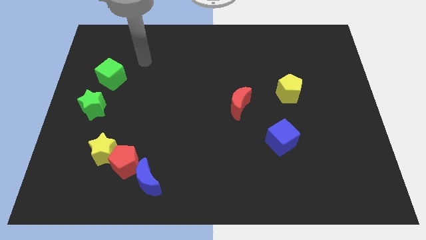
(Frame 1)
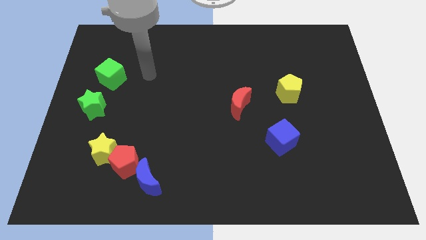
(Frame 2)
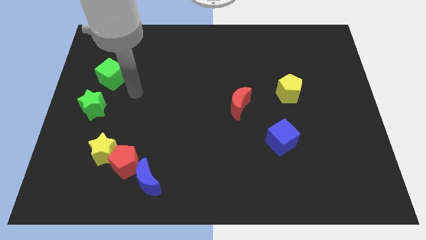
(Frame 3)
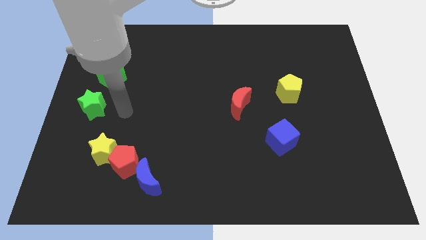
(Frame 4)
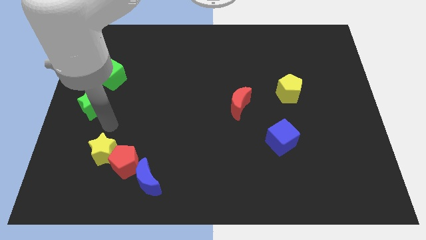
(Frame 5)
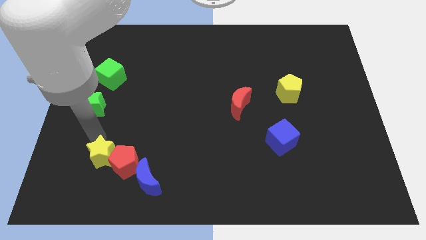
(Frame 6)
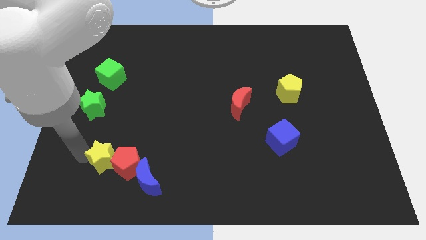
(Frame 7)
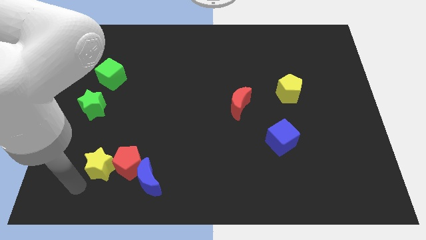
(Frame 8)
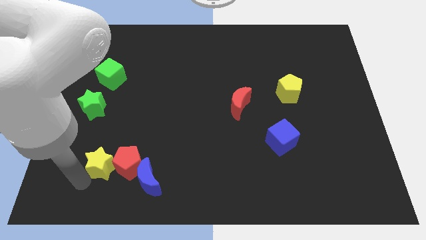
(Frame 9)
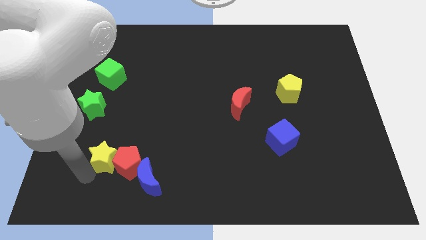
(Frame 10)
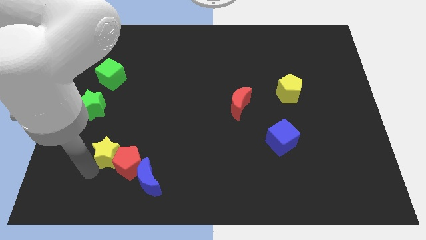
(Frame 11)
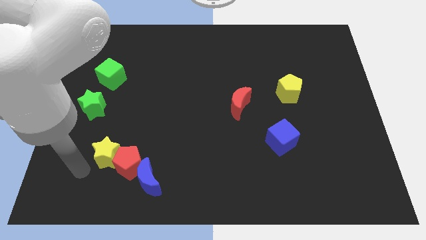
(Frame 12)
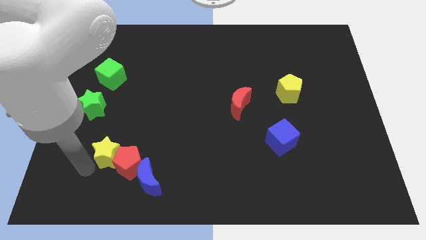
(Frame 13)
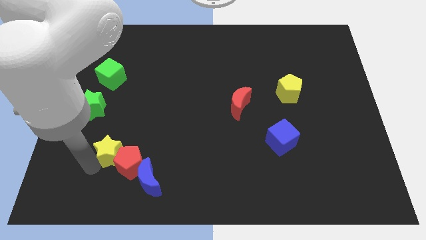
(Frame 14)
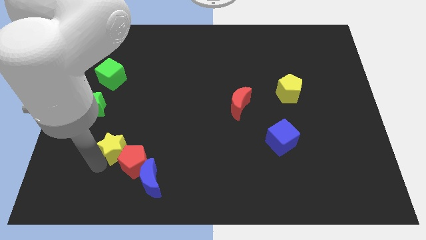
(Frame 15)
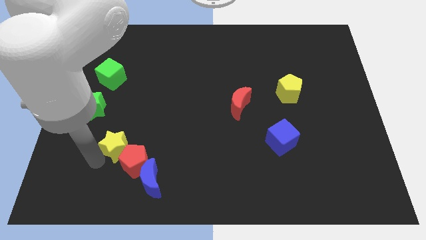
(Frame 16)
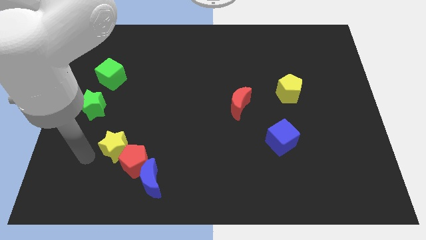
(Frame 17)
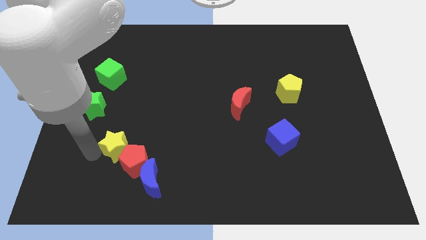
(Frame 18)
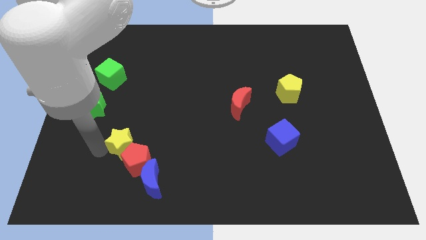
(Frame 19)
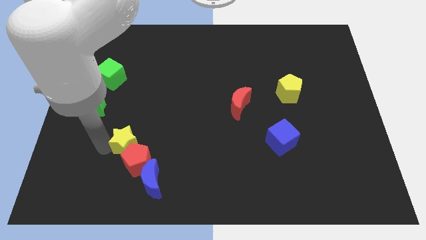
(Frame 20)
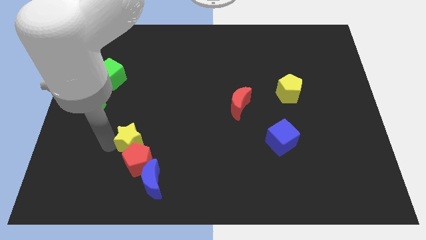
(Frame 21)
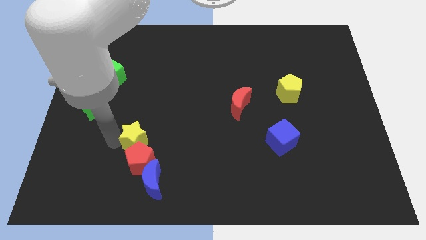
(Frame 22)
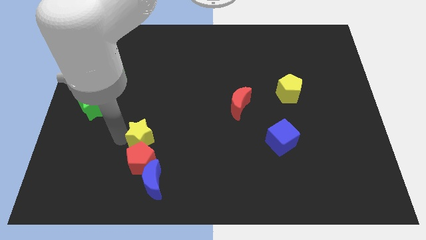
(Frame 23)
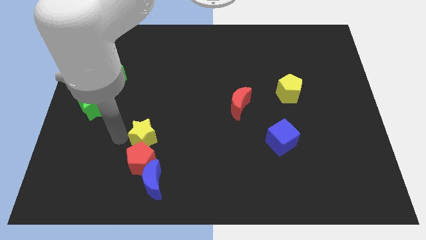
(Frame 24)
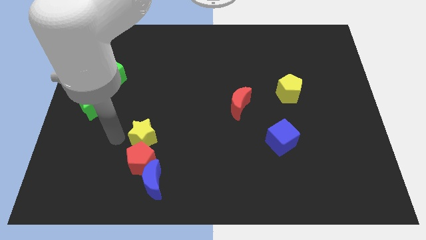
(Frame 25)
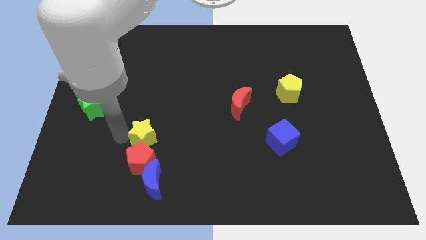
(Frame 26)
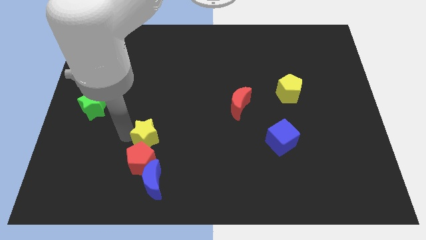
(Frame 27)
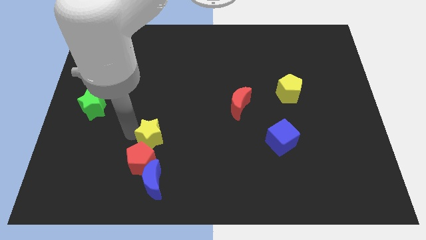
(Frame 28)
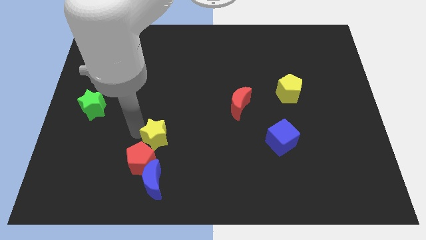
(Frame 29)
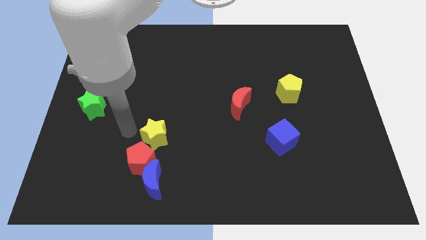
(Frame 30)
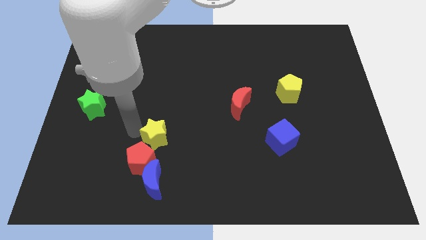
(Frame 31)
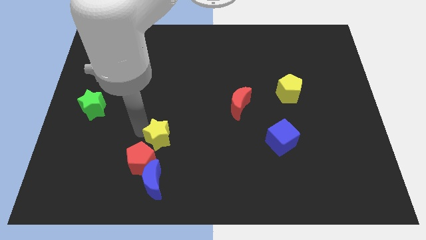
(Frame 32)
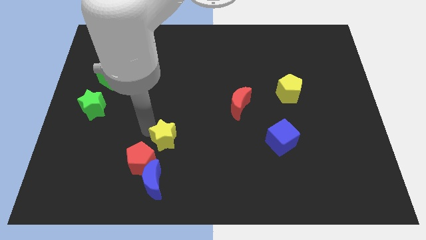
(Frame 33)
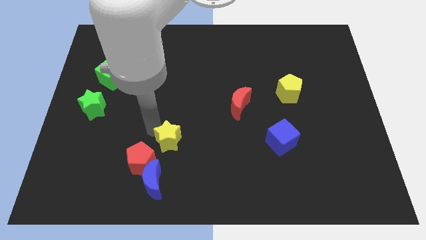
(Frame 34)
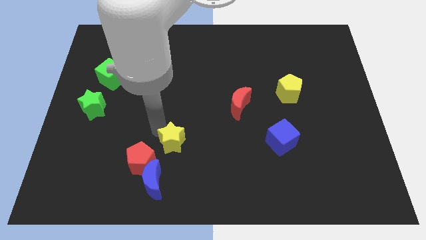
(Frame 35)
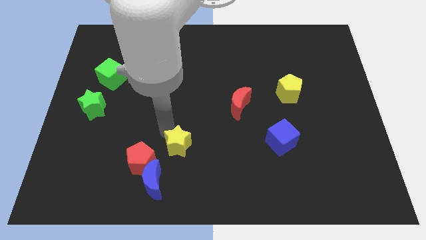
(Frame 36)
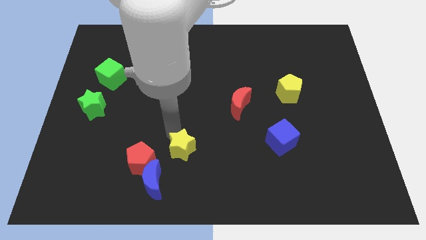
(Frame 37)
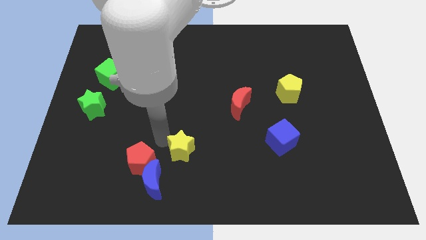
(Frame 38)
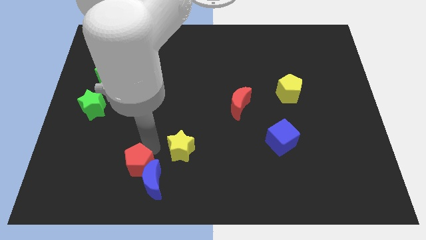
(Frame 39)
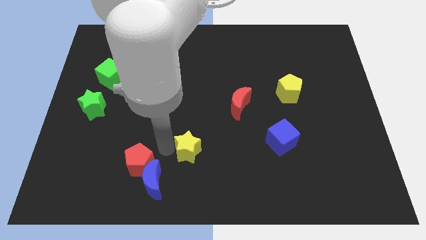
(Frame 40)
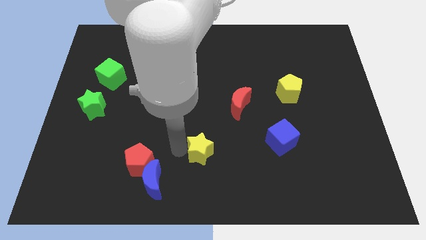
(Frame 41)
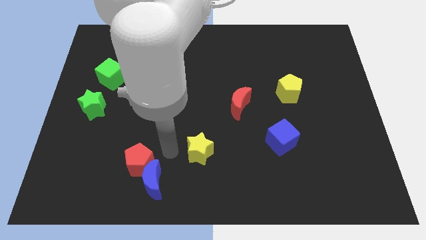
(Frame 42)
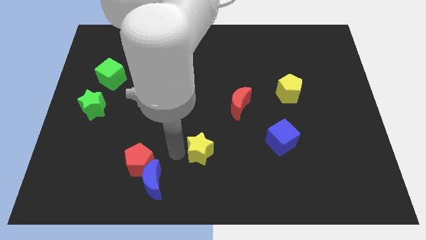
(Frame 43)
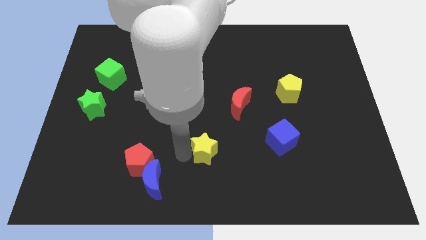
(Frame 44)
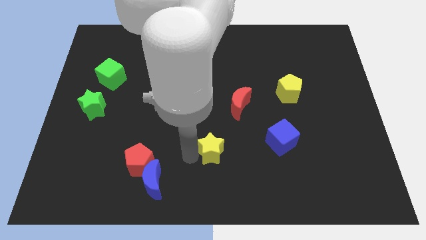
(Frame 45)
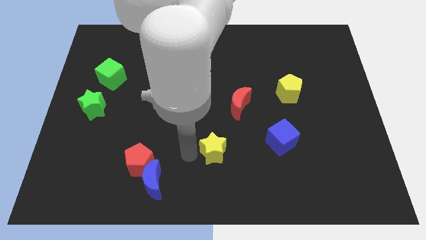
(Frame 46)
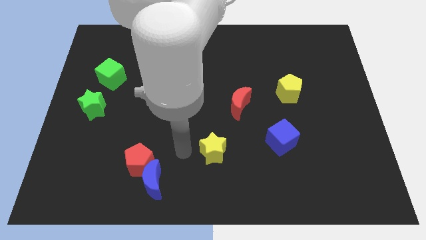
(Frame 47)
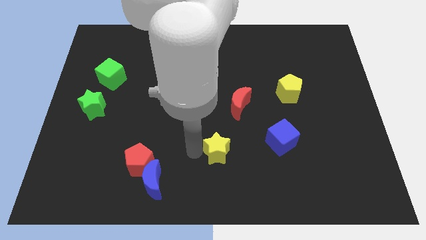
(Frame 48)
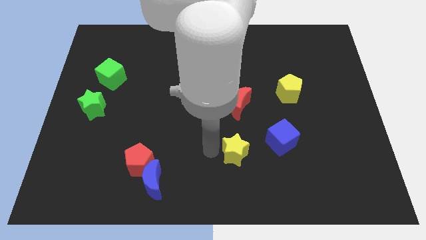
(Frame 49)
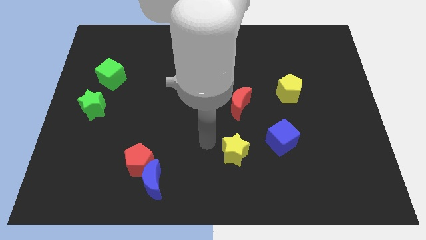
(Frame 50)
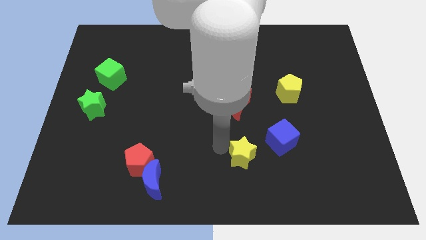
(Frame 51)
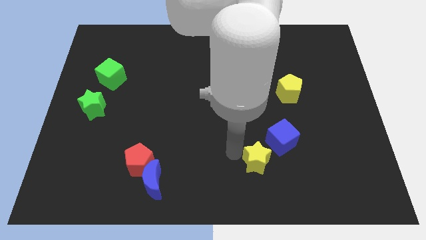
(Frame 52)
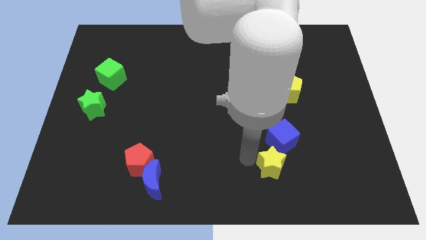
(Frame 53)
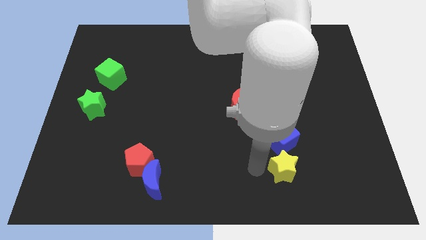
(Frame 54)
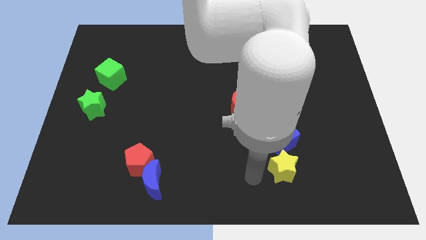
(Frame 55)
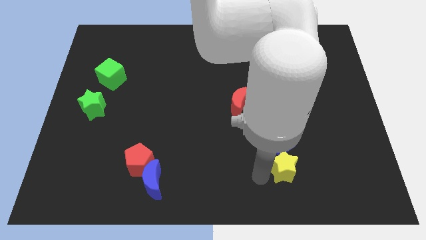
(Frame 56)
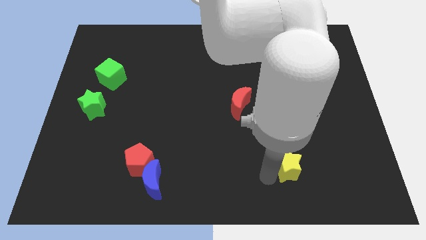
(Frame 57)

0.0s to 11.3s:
slide the yellow star to the bottom right side of the blue cube

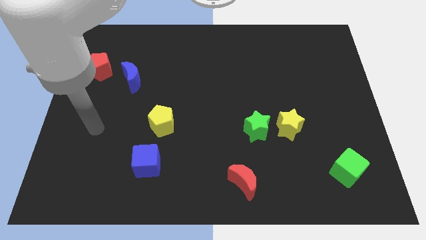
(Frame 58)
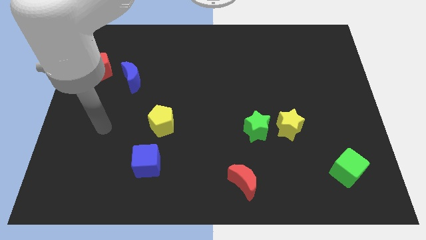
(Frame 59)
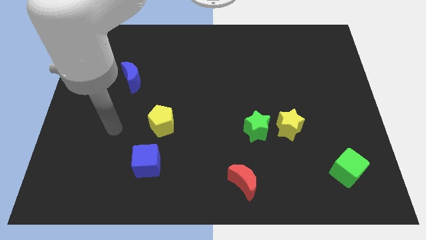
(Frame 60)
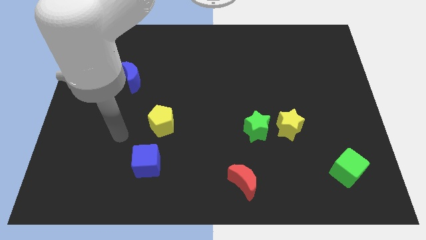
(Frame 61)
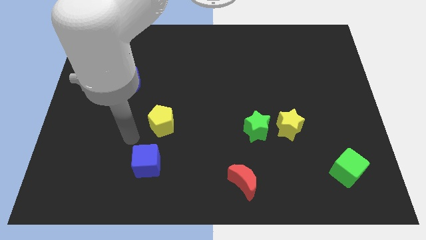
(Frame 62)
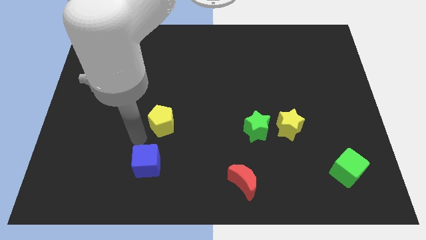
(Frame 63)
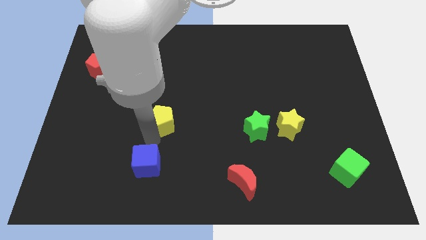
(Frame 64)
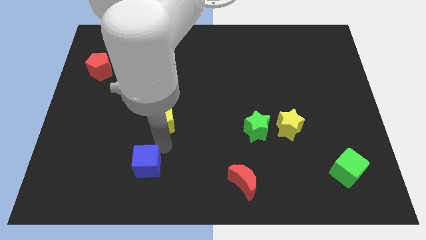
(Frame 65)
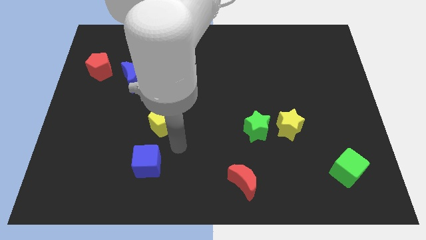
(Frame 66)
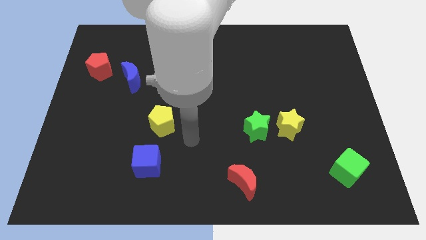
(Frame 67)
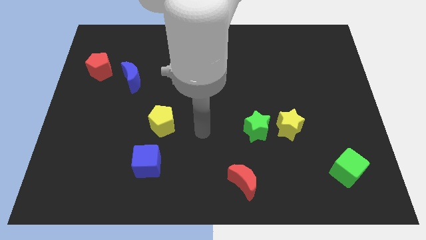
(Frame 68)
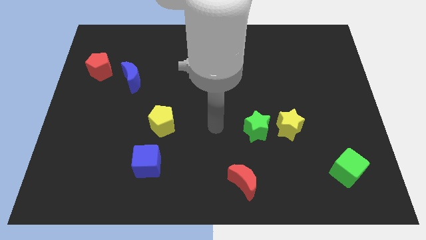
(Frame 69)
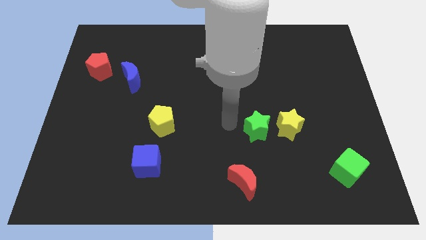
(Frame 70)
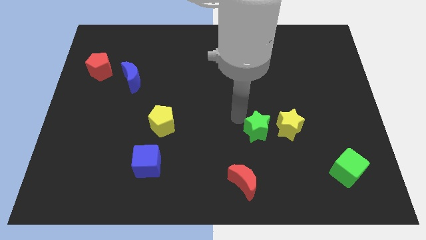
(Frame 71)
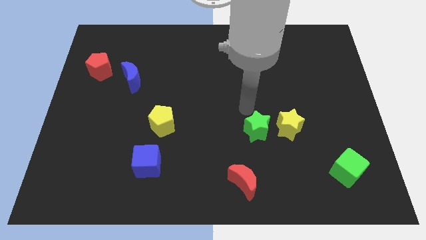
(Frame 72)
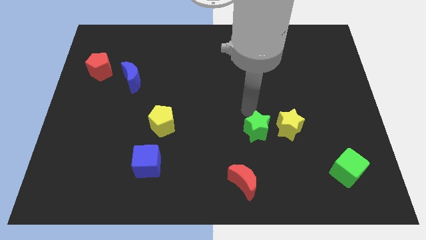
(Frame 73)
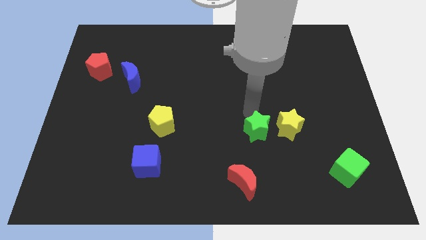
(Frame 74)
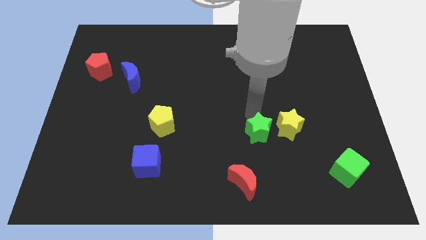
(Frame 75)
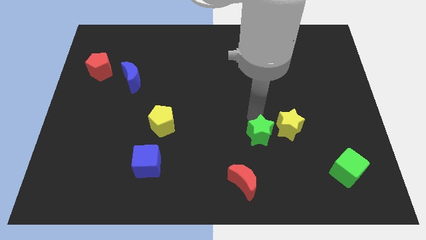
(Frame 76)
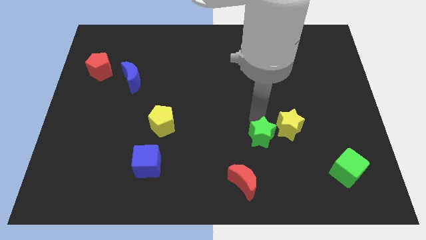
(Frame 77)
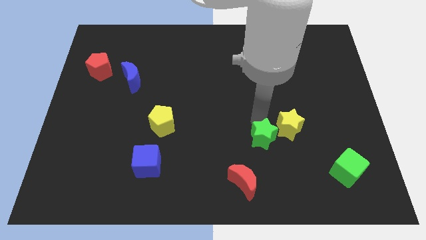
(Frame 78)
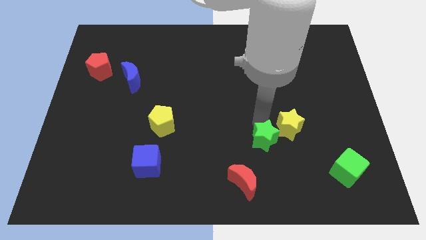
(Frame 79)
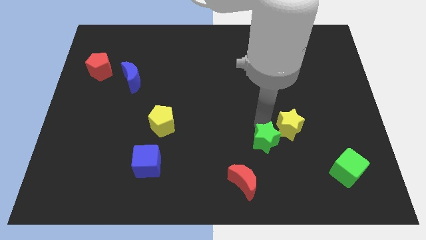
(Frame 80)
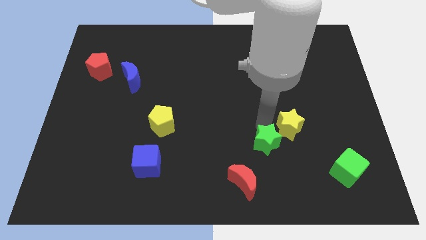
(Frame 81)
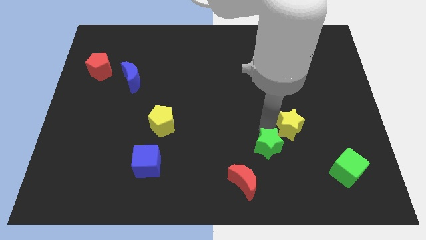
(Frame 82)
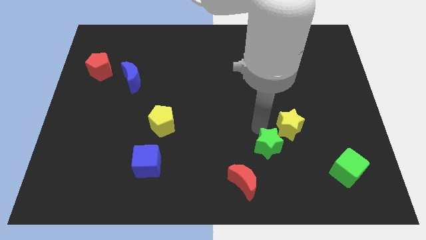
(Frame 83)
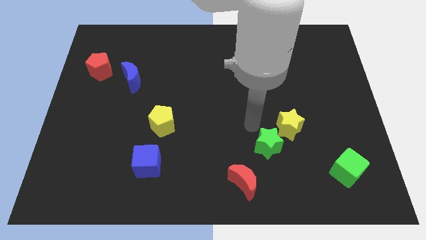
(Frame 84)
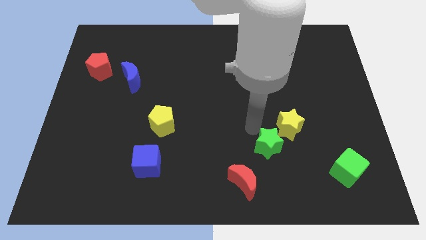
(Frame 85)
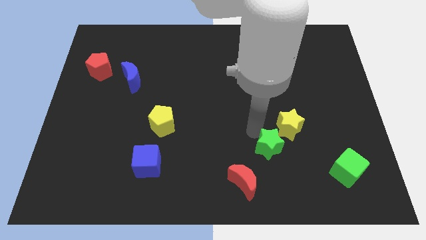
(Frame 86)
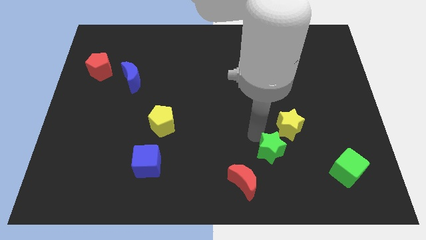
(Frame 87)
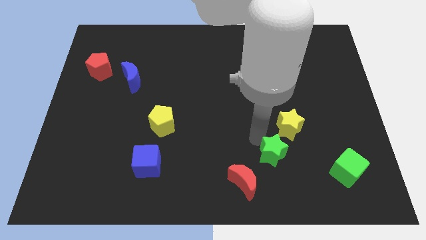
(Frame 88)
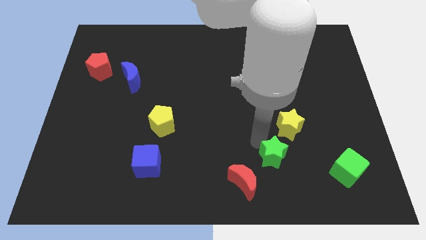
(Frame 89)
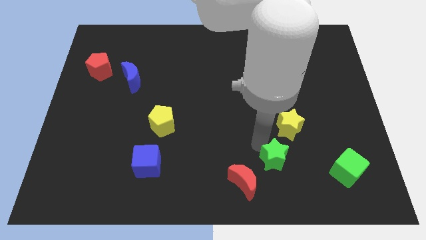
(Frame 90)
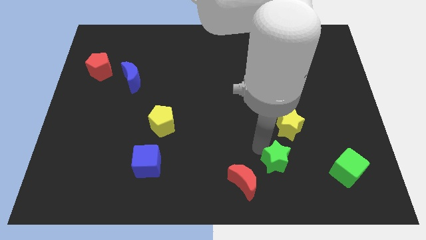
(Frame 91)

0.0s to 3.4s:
put the green star right of the red moon
